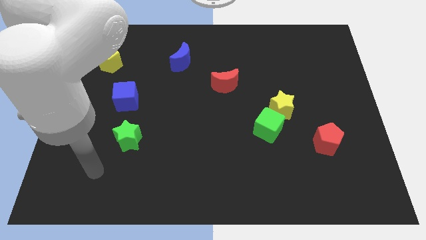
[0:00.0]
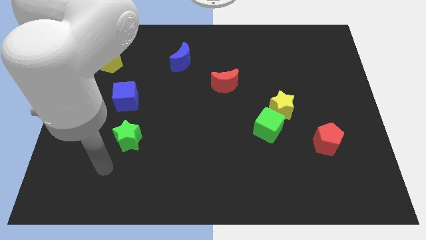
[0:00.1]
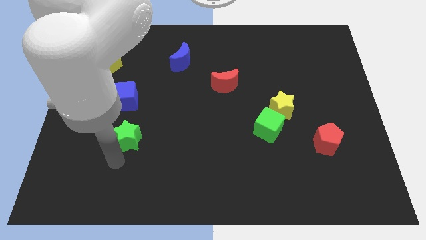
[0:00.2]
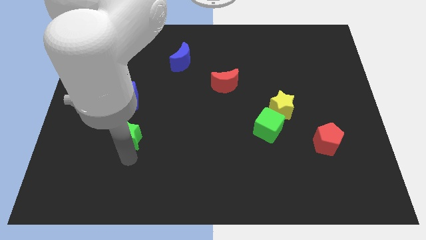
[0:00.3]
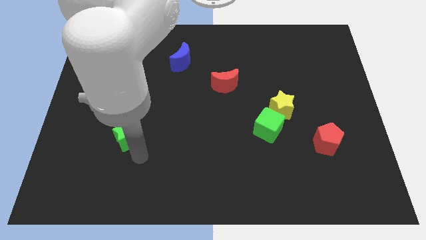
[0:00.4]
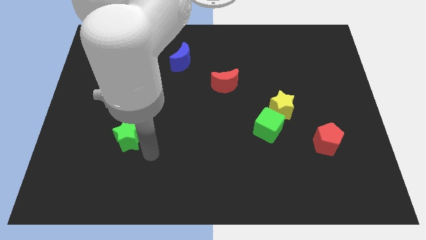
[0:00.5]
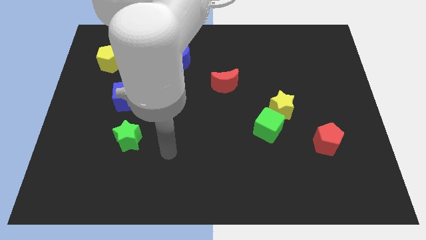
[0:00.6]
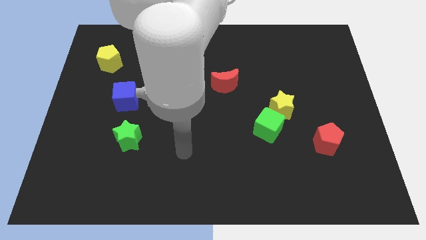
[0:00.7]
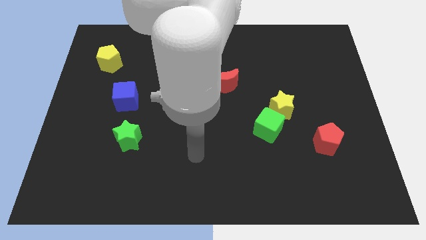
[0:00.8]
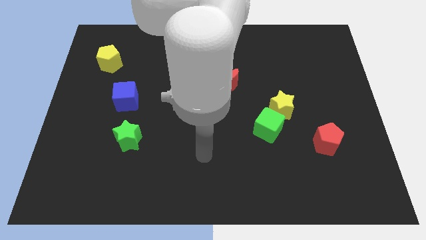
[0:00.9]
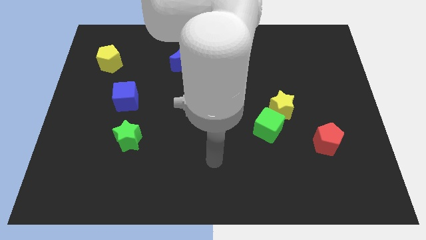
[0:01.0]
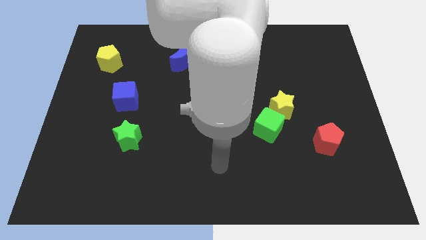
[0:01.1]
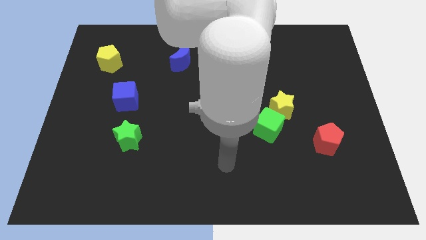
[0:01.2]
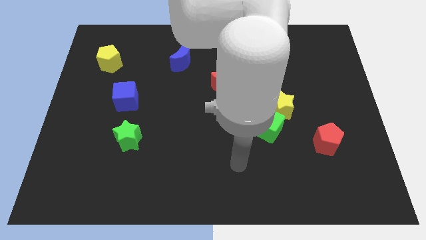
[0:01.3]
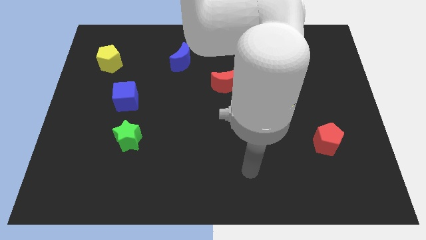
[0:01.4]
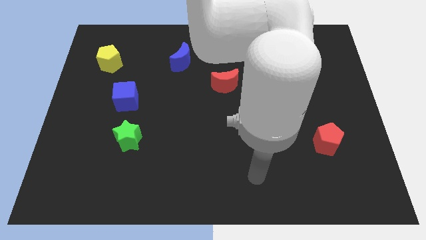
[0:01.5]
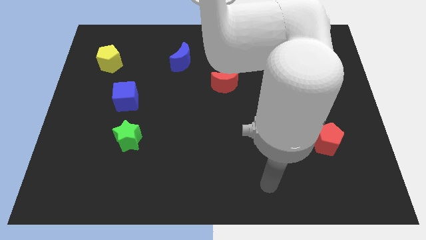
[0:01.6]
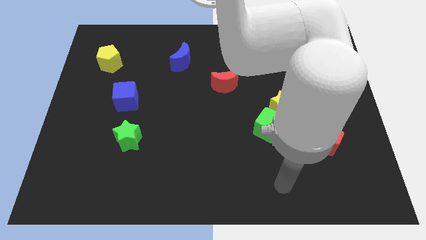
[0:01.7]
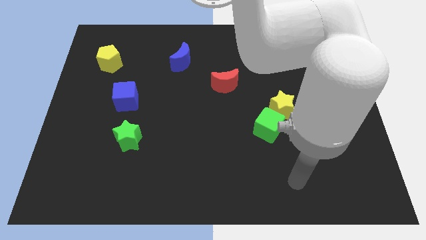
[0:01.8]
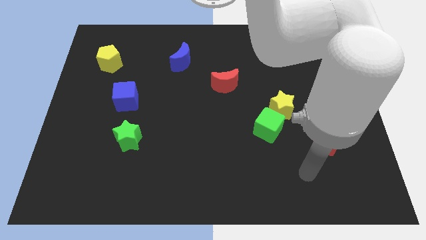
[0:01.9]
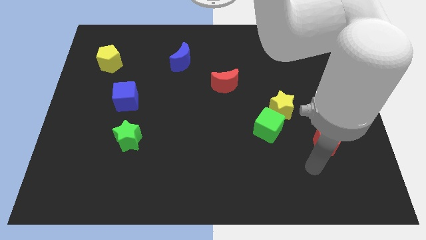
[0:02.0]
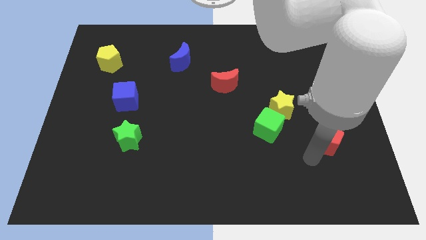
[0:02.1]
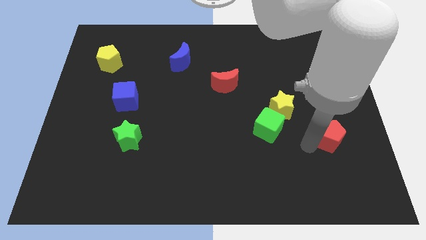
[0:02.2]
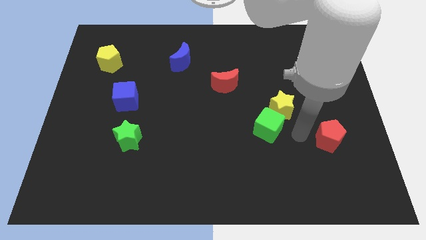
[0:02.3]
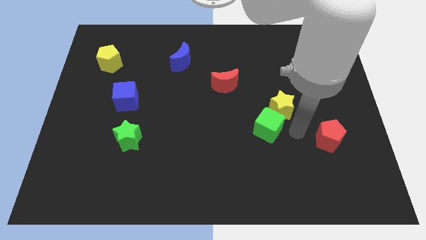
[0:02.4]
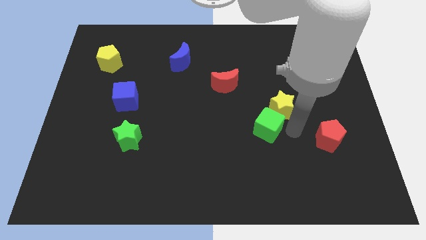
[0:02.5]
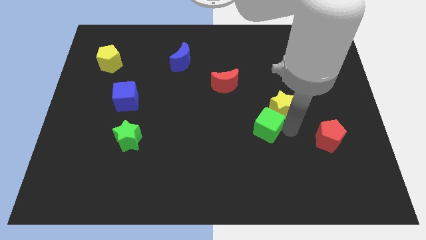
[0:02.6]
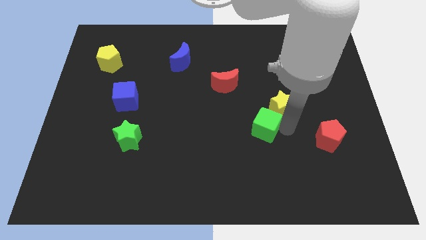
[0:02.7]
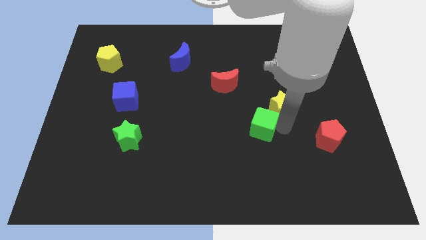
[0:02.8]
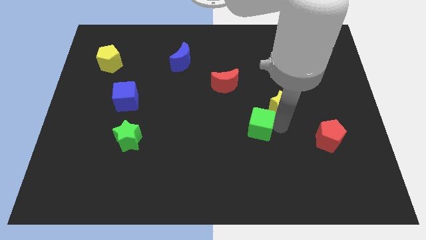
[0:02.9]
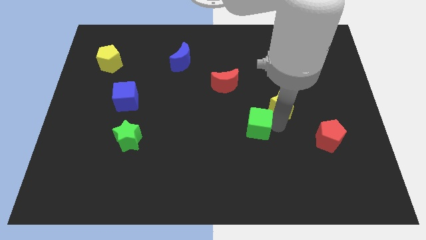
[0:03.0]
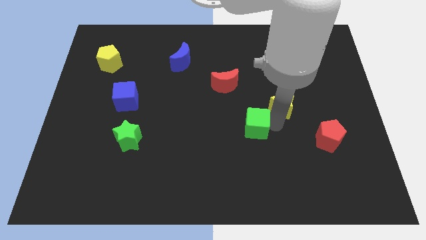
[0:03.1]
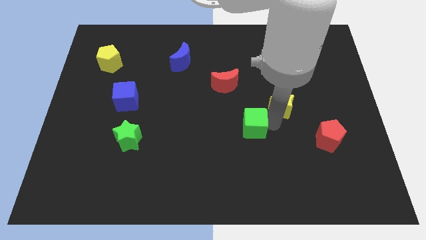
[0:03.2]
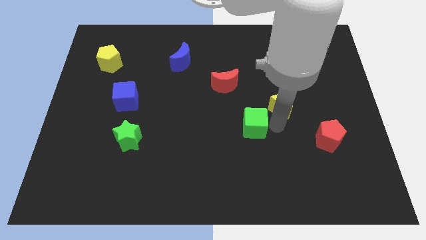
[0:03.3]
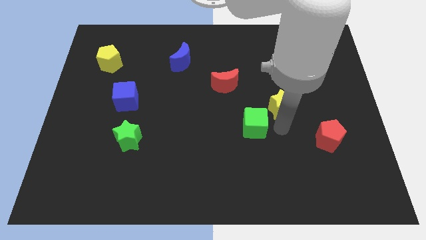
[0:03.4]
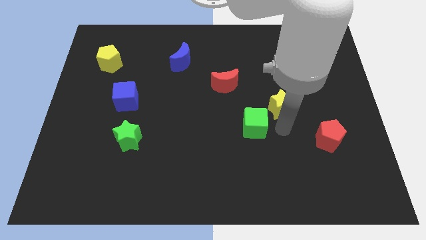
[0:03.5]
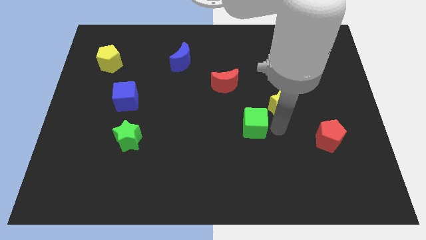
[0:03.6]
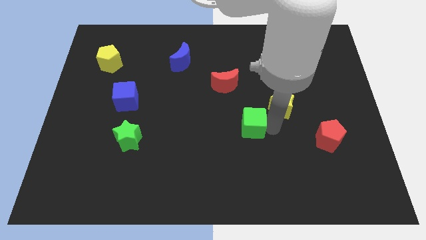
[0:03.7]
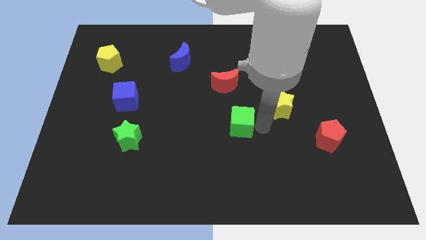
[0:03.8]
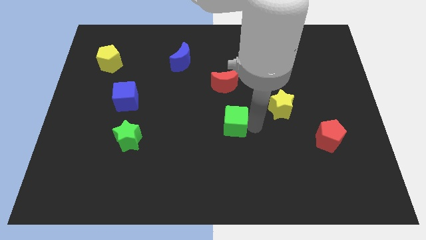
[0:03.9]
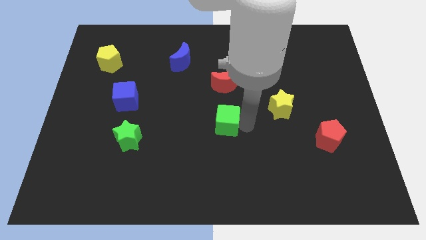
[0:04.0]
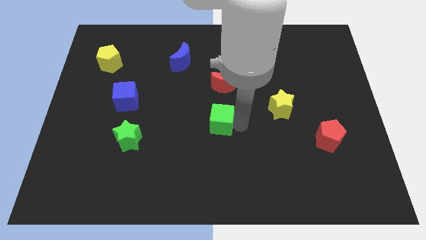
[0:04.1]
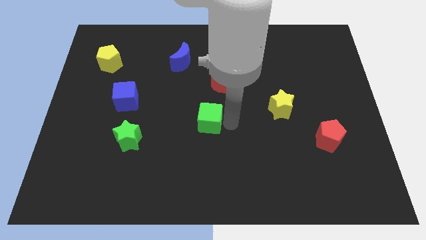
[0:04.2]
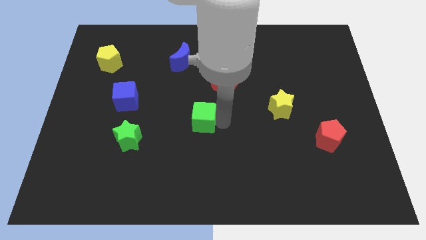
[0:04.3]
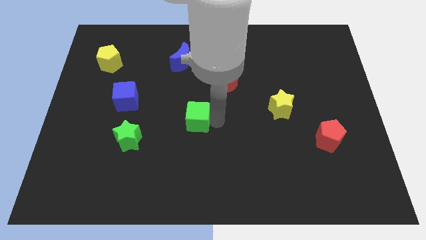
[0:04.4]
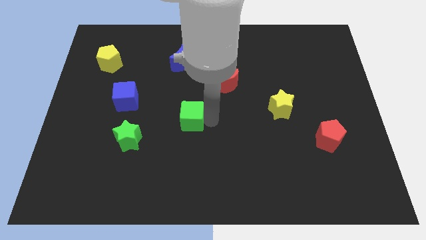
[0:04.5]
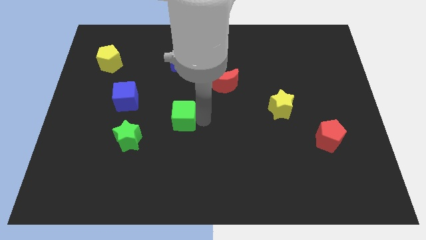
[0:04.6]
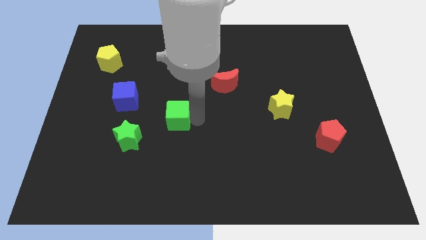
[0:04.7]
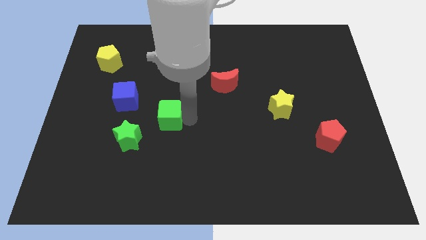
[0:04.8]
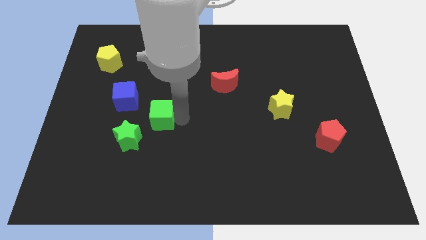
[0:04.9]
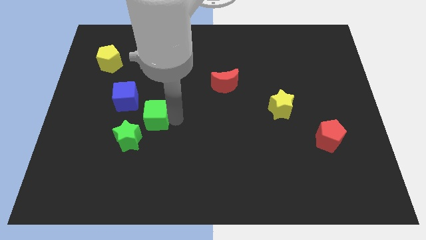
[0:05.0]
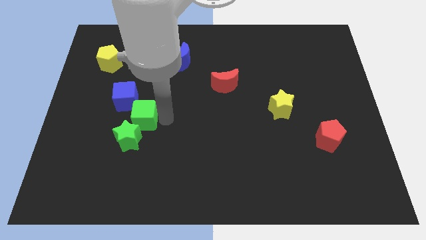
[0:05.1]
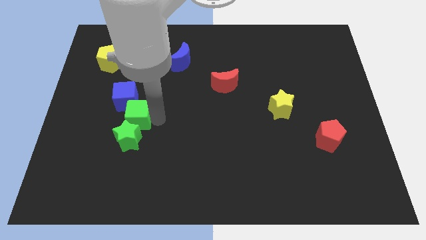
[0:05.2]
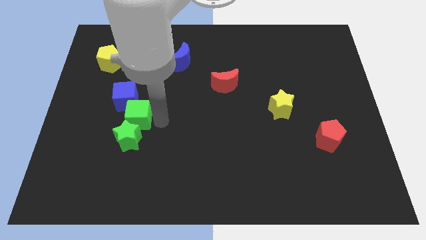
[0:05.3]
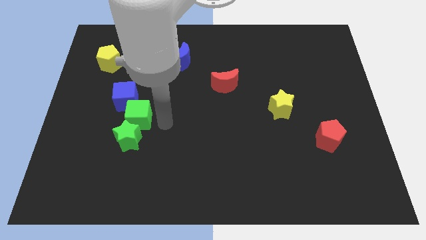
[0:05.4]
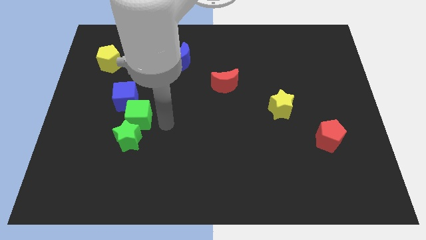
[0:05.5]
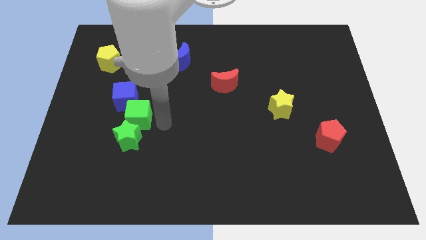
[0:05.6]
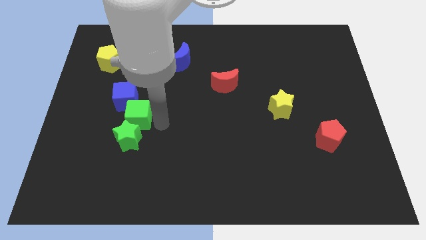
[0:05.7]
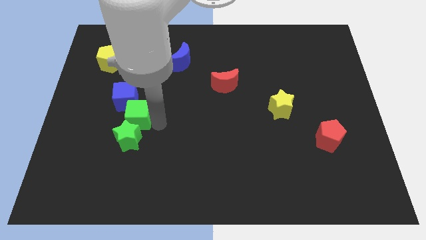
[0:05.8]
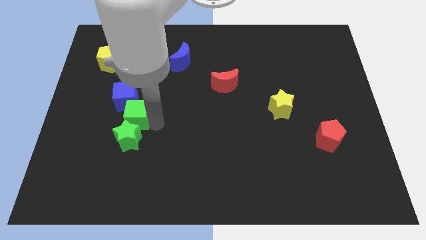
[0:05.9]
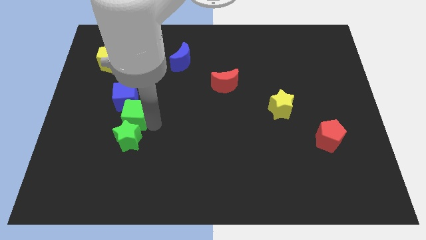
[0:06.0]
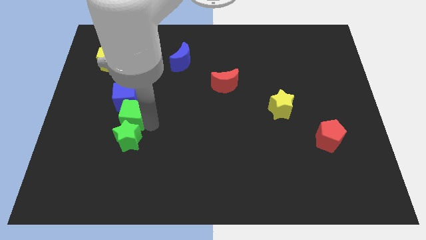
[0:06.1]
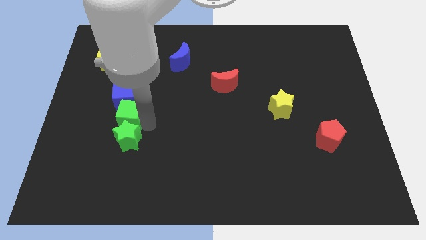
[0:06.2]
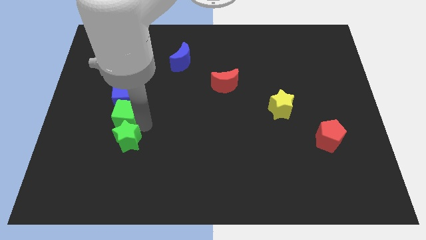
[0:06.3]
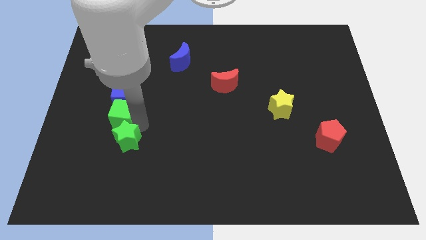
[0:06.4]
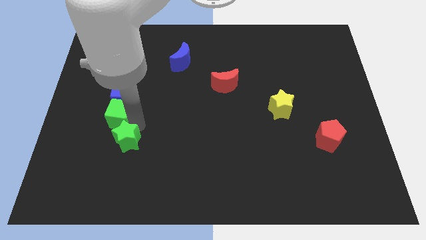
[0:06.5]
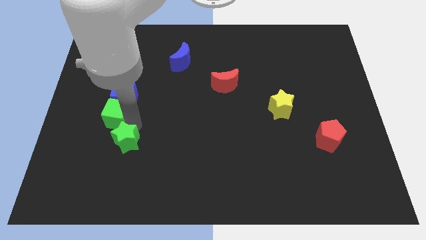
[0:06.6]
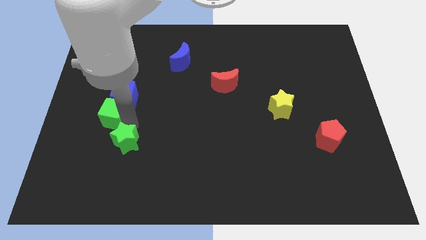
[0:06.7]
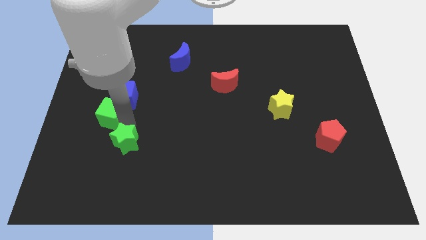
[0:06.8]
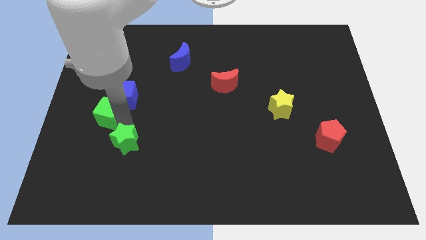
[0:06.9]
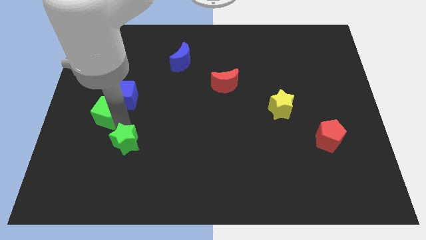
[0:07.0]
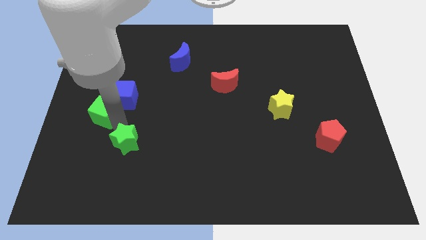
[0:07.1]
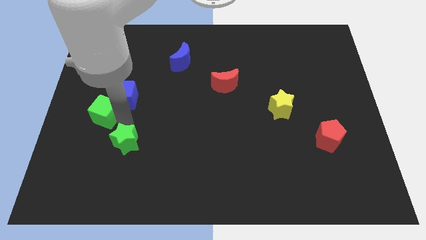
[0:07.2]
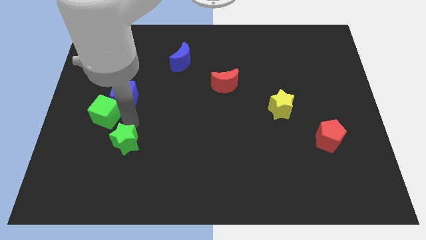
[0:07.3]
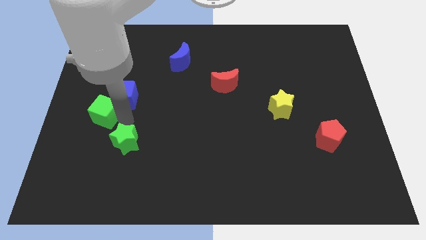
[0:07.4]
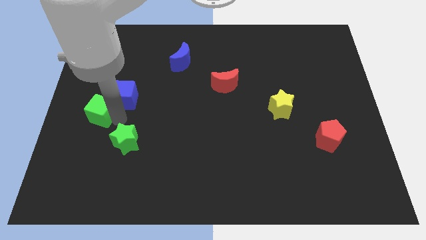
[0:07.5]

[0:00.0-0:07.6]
slide the green cube to the left side
